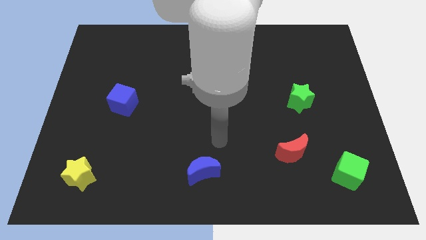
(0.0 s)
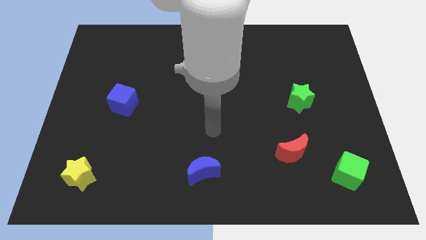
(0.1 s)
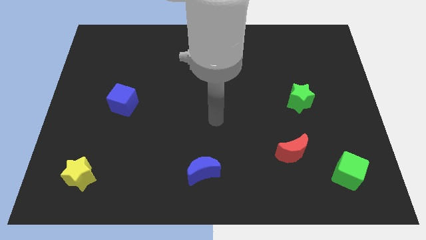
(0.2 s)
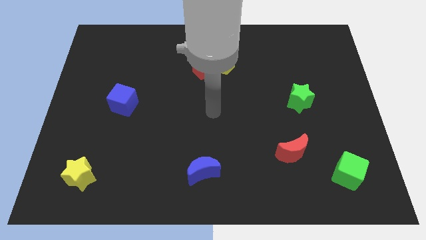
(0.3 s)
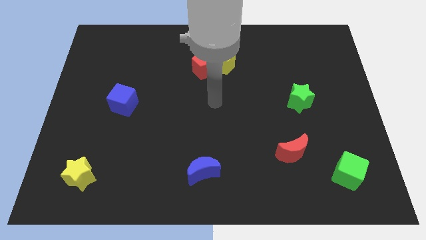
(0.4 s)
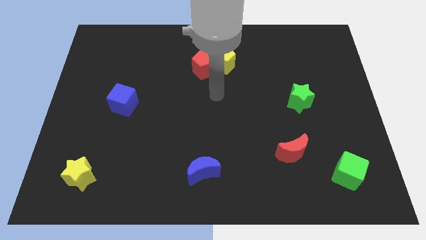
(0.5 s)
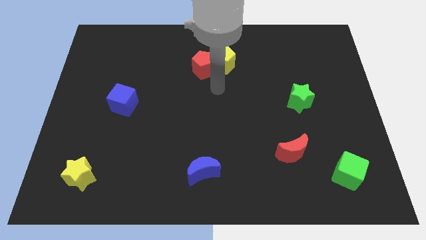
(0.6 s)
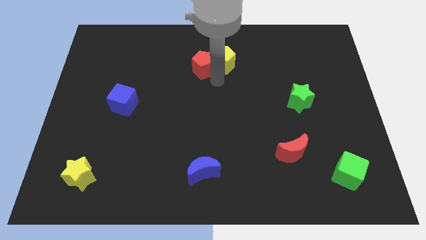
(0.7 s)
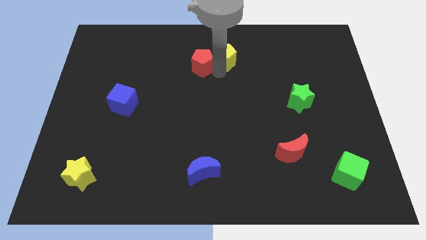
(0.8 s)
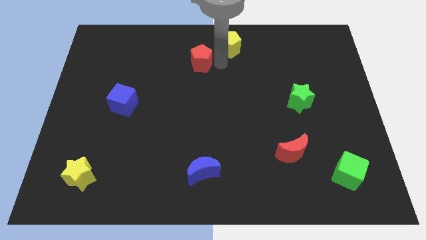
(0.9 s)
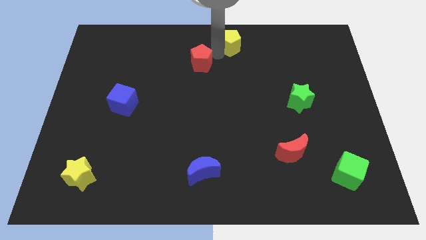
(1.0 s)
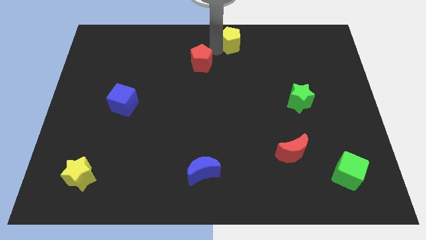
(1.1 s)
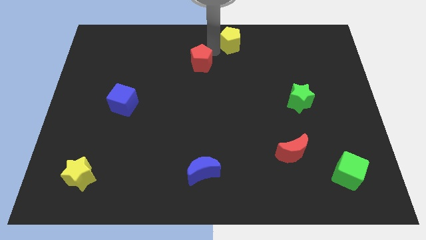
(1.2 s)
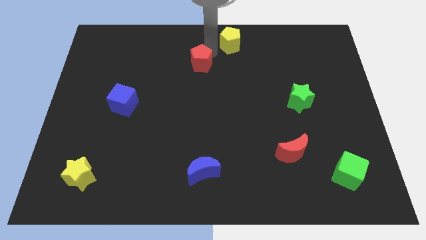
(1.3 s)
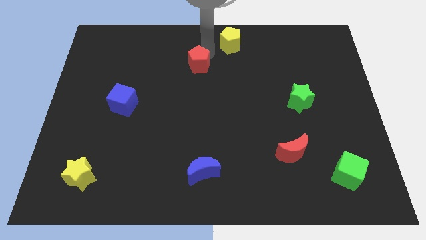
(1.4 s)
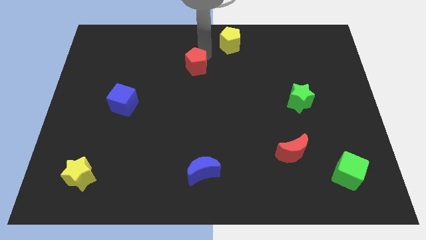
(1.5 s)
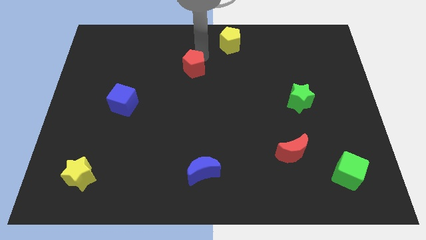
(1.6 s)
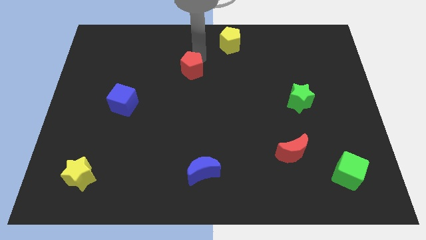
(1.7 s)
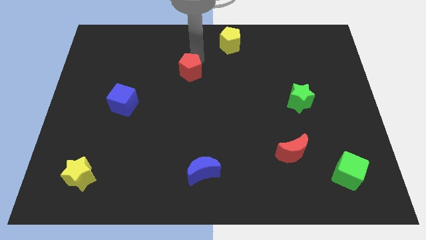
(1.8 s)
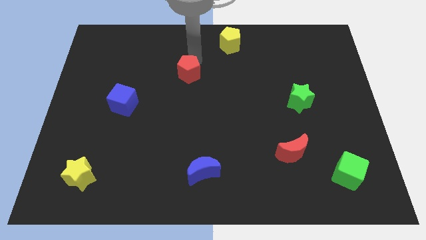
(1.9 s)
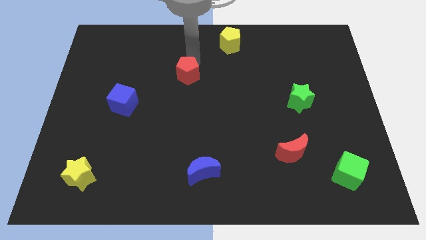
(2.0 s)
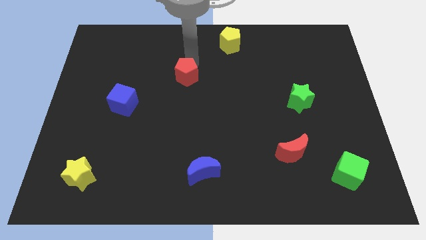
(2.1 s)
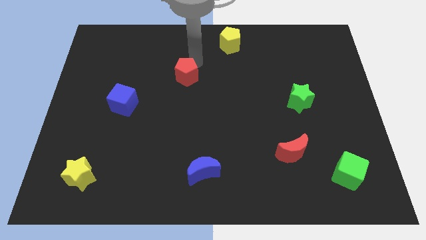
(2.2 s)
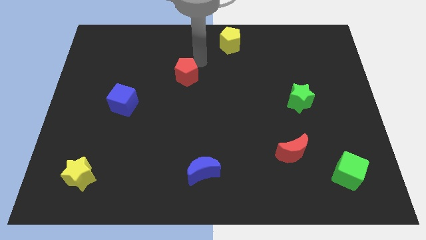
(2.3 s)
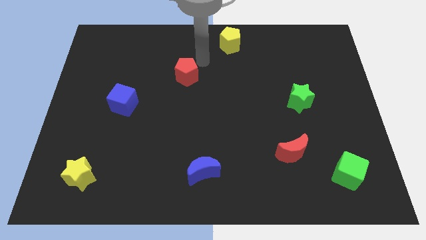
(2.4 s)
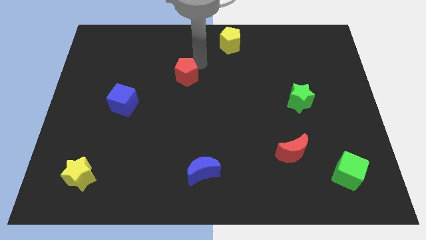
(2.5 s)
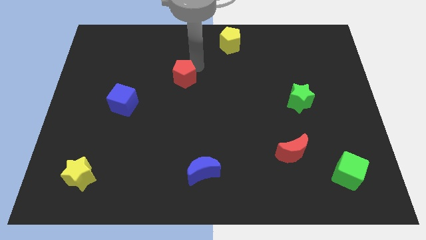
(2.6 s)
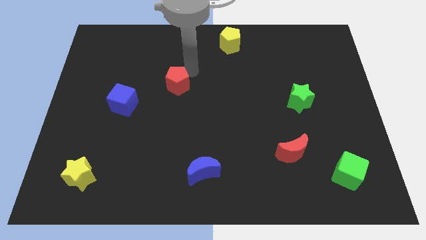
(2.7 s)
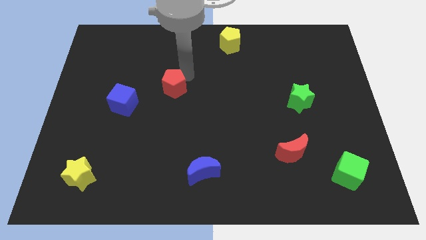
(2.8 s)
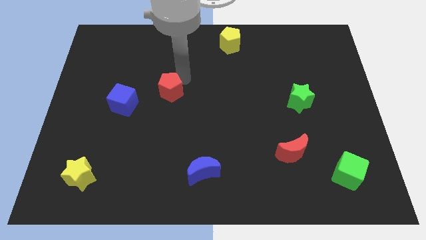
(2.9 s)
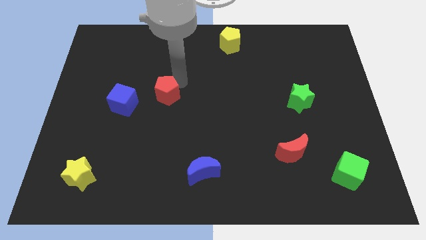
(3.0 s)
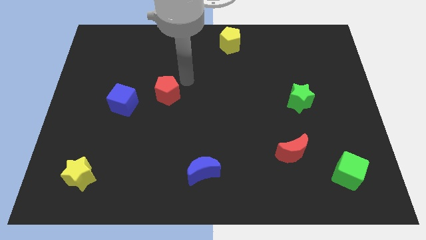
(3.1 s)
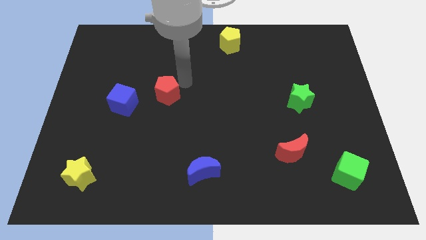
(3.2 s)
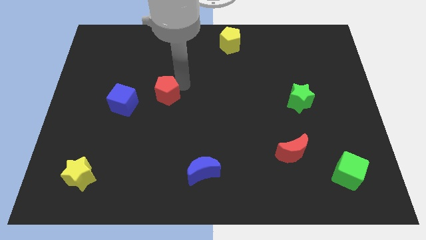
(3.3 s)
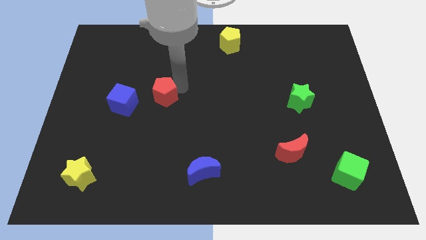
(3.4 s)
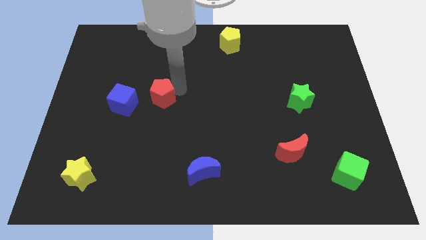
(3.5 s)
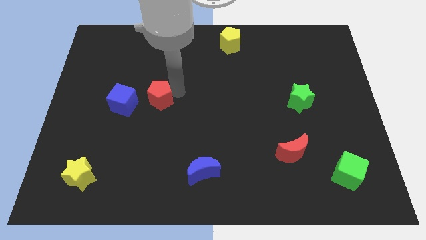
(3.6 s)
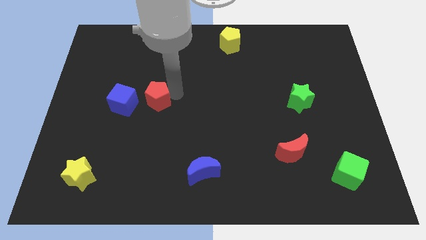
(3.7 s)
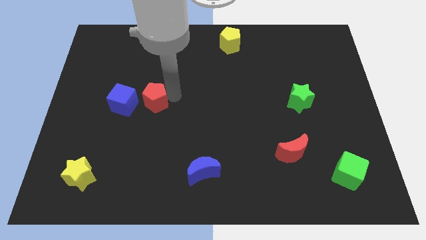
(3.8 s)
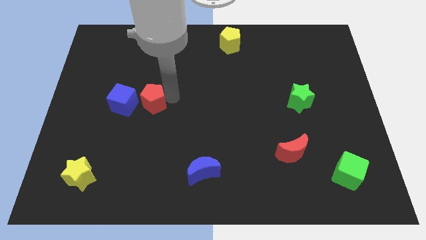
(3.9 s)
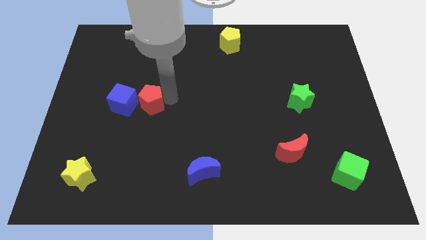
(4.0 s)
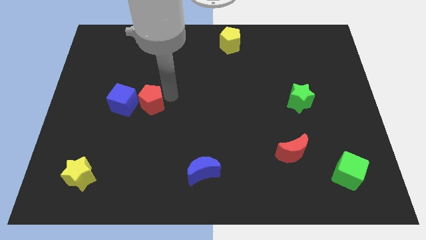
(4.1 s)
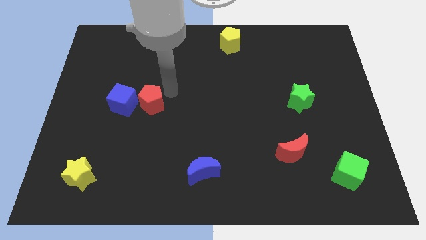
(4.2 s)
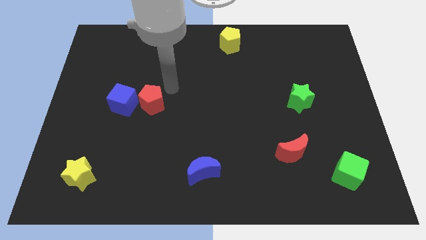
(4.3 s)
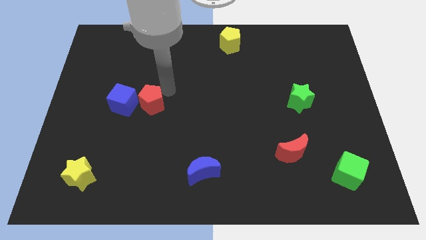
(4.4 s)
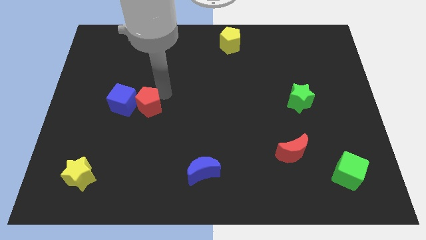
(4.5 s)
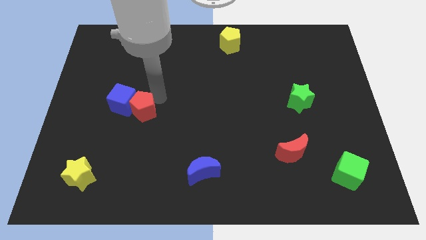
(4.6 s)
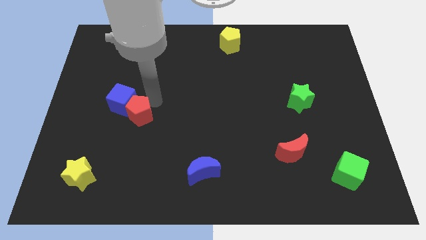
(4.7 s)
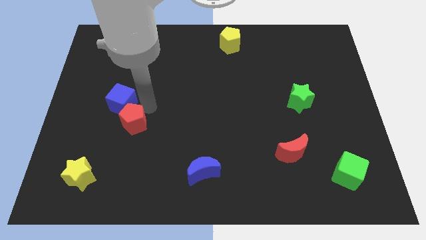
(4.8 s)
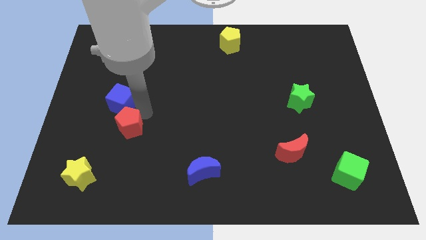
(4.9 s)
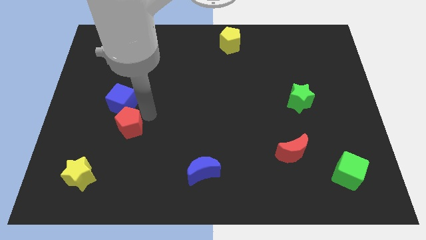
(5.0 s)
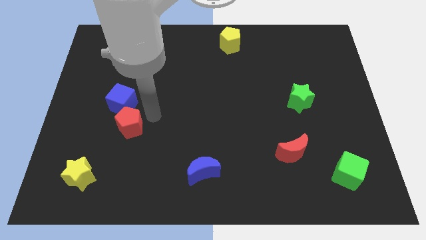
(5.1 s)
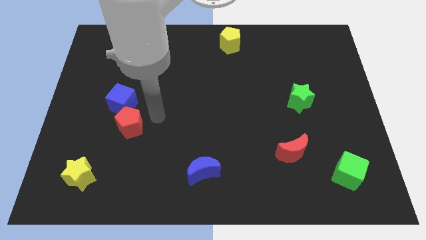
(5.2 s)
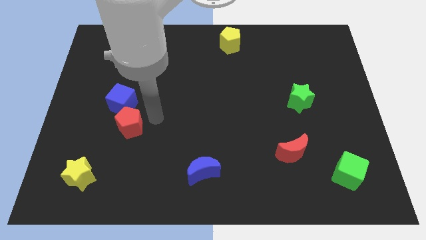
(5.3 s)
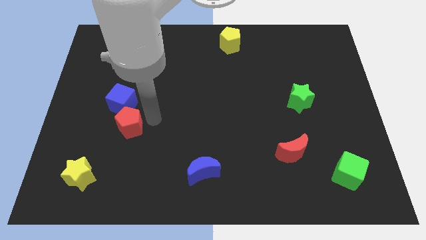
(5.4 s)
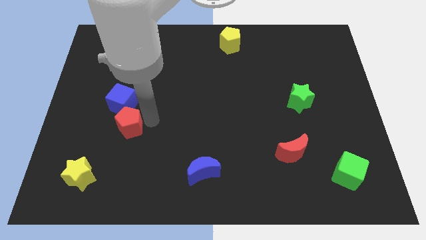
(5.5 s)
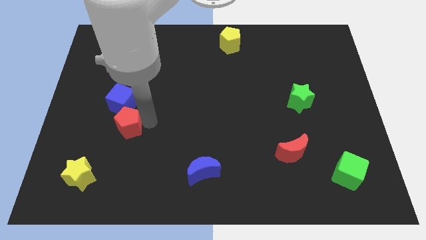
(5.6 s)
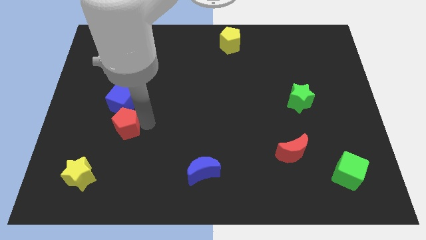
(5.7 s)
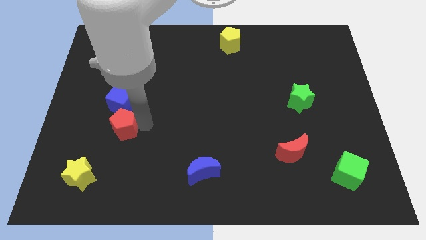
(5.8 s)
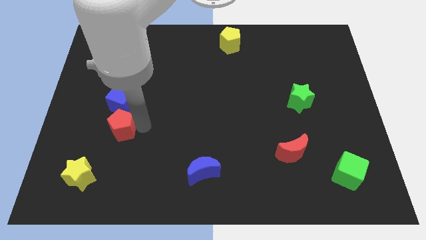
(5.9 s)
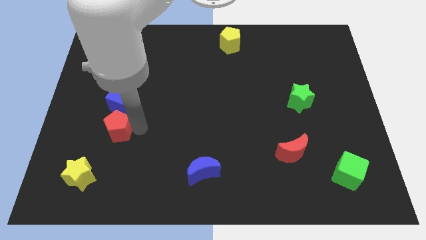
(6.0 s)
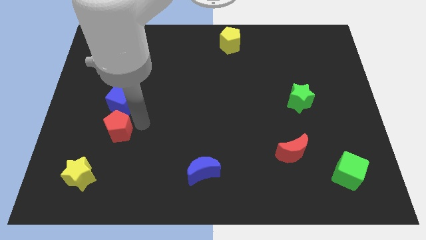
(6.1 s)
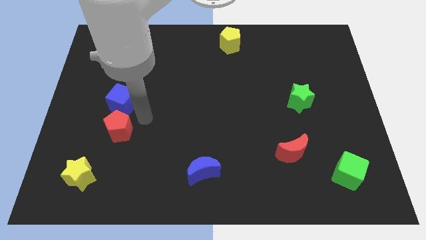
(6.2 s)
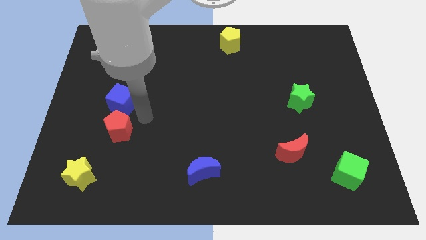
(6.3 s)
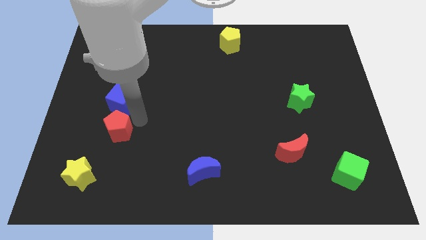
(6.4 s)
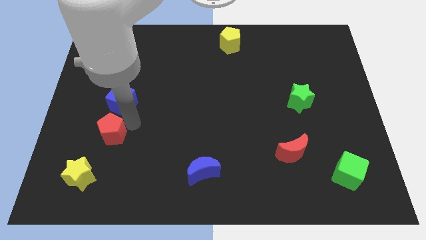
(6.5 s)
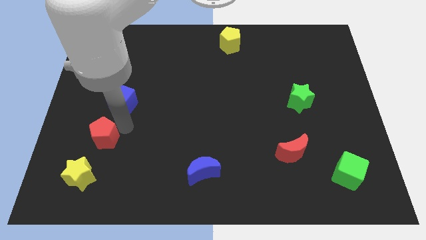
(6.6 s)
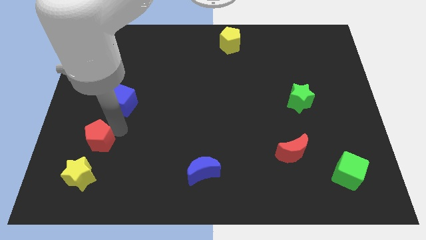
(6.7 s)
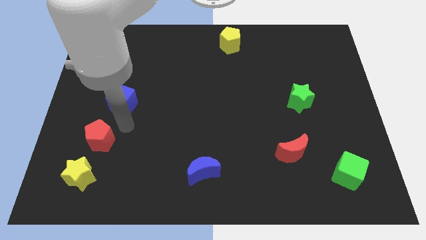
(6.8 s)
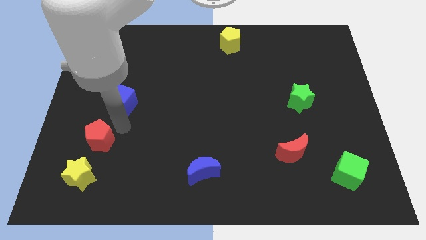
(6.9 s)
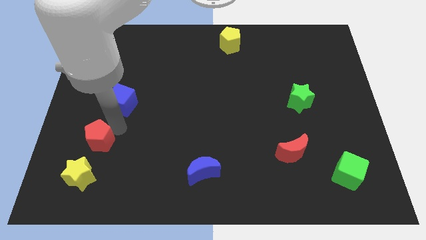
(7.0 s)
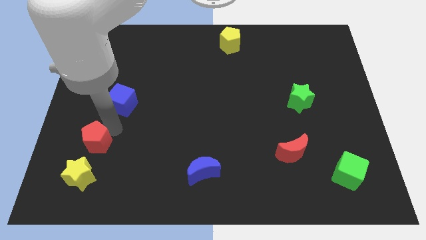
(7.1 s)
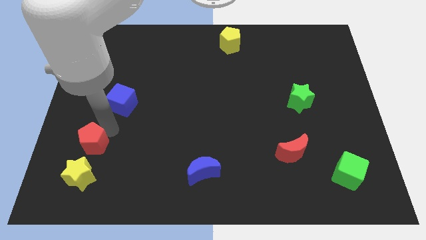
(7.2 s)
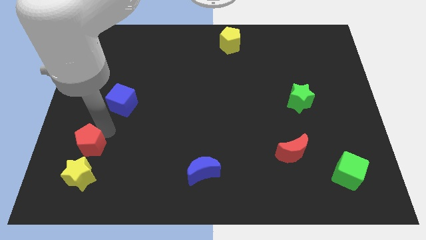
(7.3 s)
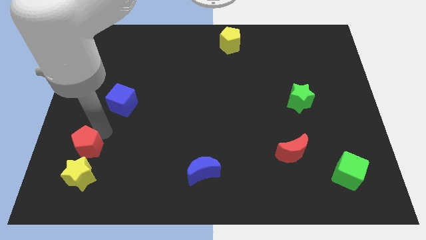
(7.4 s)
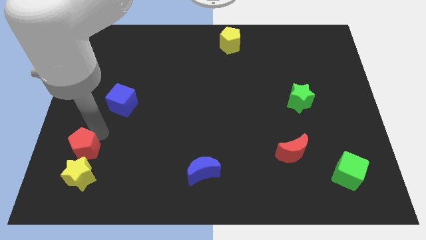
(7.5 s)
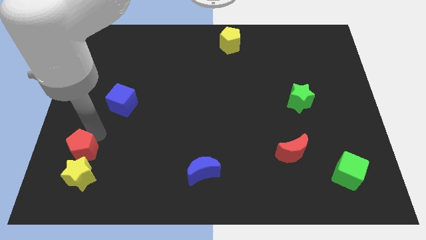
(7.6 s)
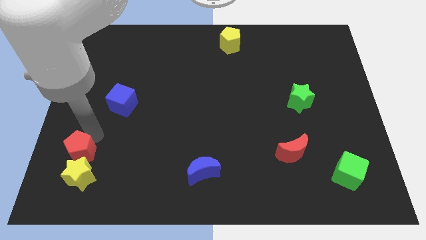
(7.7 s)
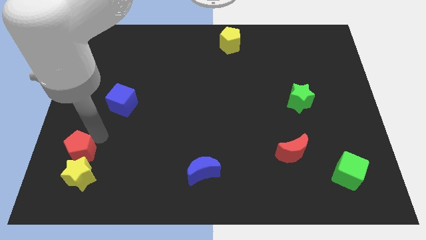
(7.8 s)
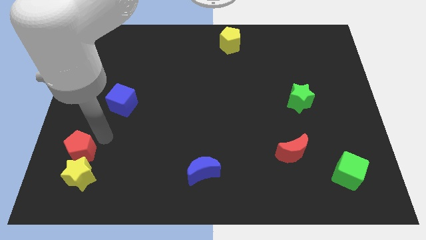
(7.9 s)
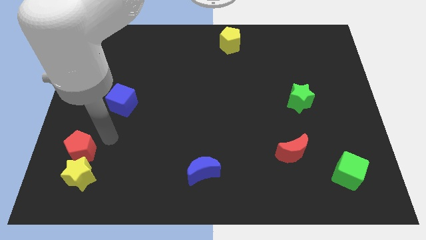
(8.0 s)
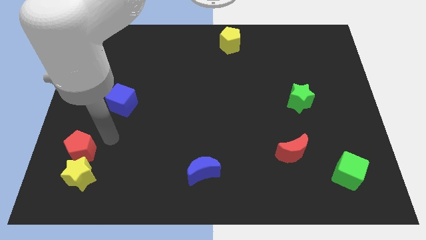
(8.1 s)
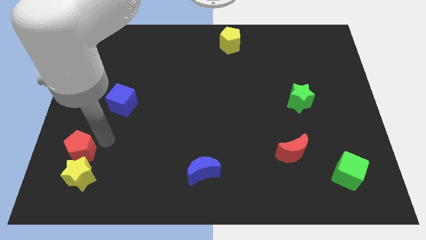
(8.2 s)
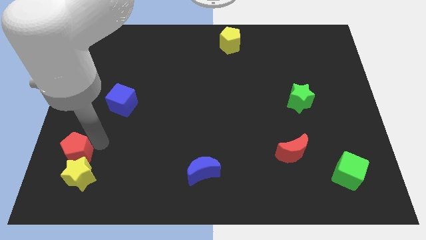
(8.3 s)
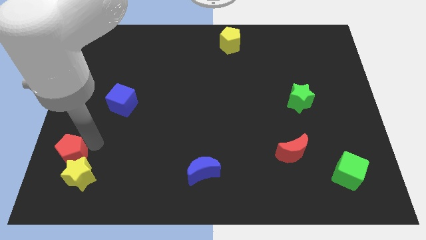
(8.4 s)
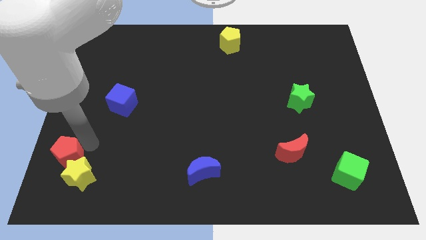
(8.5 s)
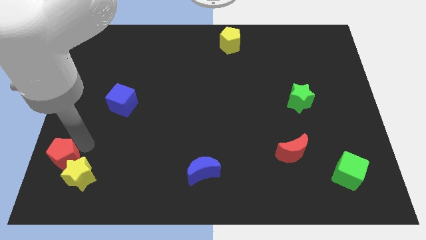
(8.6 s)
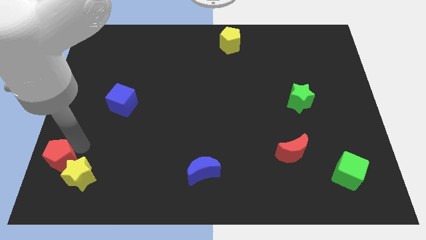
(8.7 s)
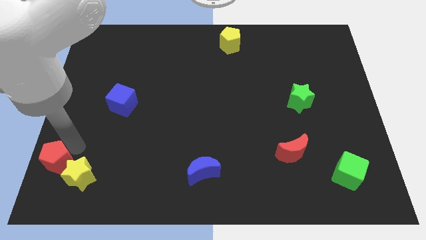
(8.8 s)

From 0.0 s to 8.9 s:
push the red pentagon to the bottom left corner
